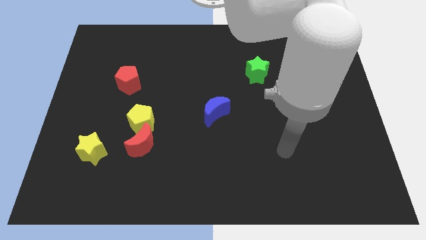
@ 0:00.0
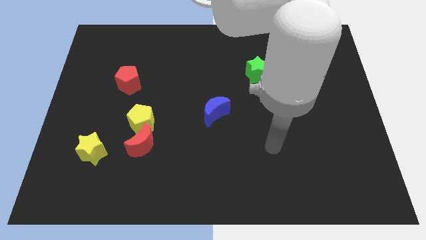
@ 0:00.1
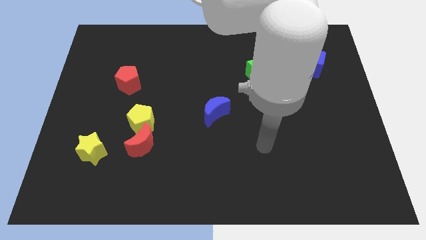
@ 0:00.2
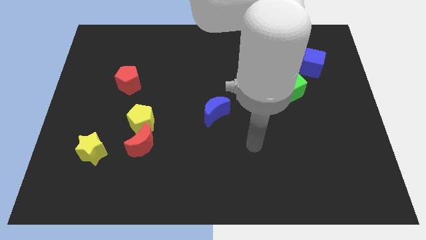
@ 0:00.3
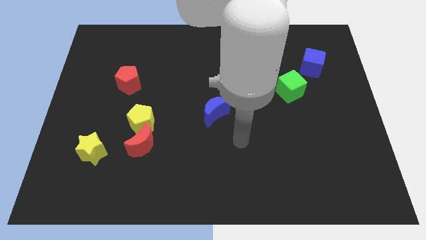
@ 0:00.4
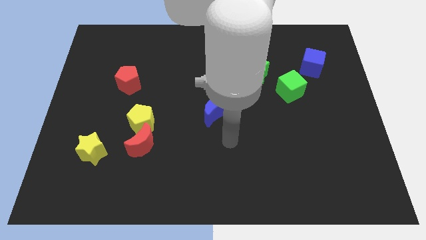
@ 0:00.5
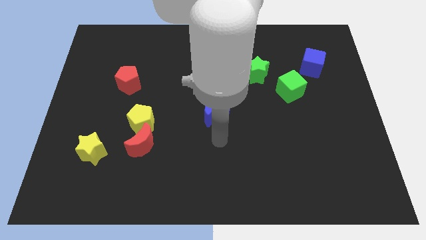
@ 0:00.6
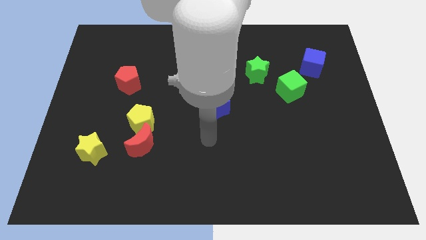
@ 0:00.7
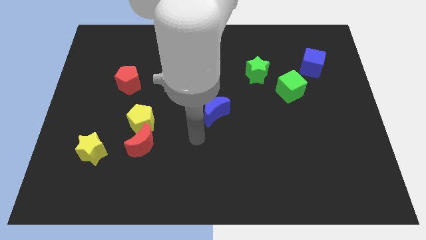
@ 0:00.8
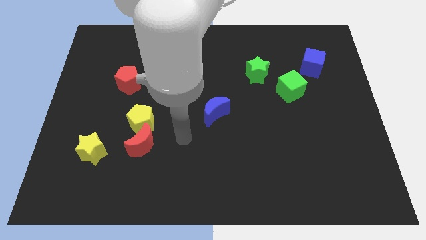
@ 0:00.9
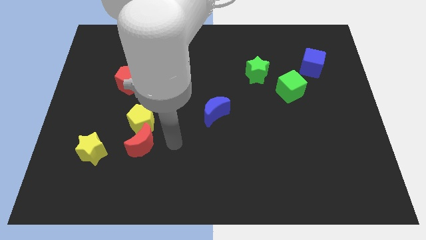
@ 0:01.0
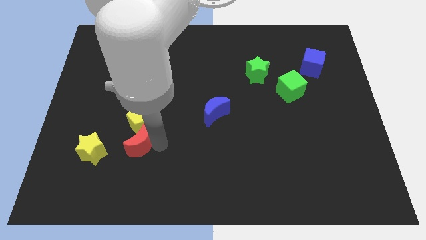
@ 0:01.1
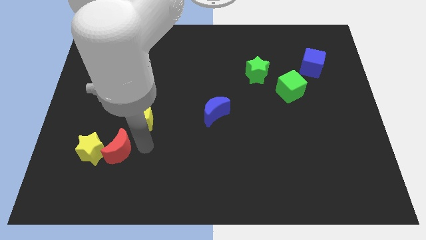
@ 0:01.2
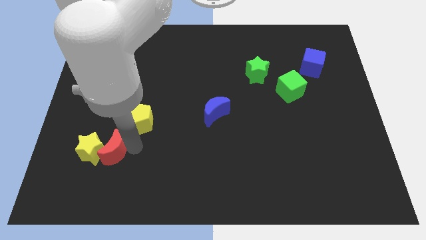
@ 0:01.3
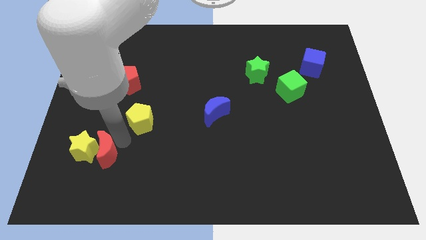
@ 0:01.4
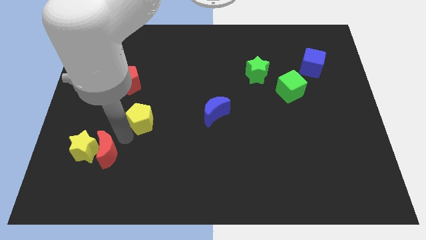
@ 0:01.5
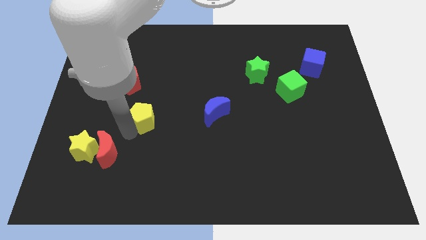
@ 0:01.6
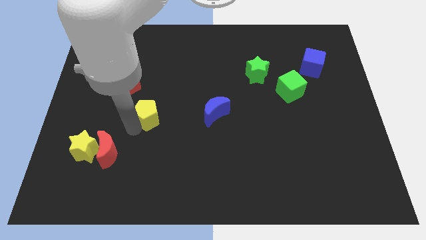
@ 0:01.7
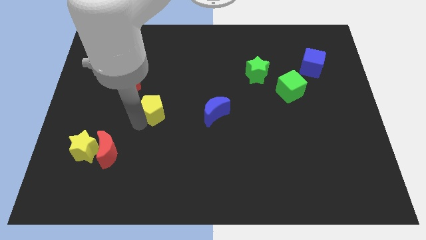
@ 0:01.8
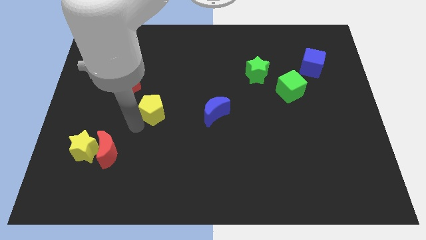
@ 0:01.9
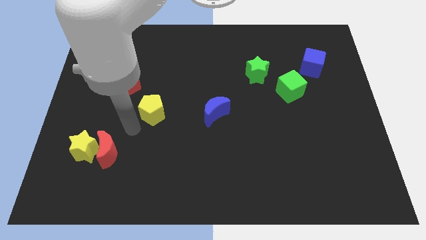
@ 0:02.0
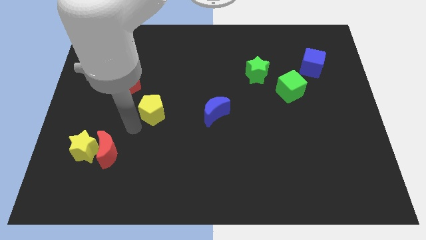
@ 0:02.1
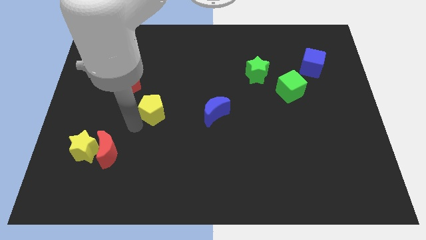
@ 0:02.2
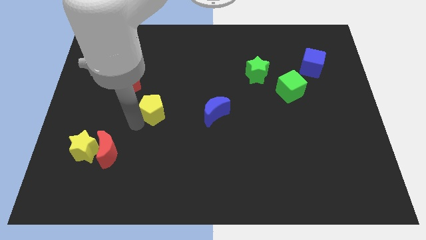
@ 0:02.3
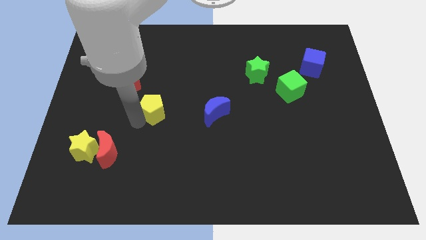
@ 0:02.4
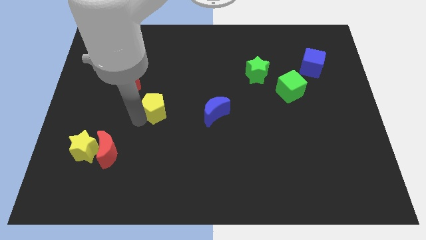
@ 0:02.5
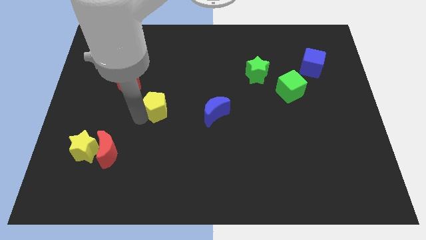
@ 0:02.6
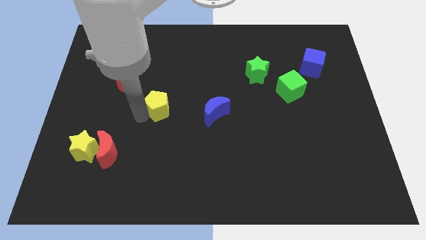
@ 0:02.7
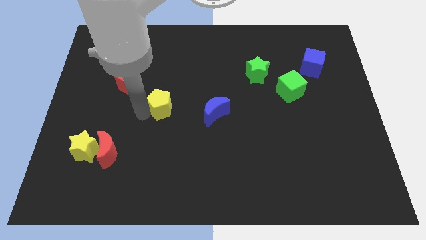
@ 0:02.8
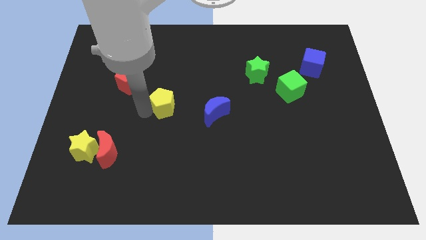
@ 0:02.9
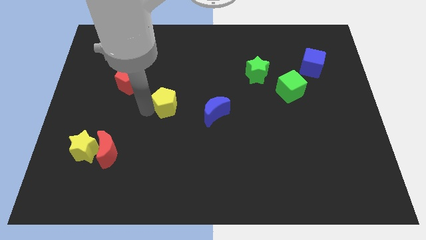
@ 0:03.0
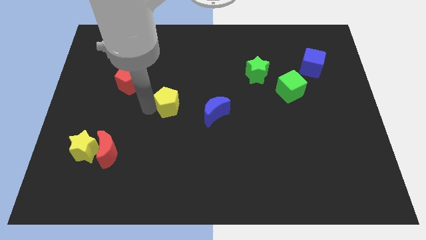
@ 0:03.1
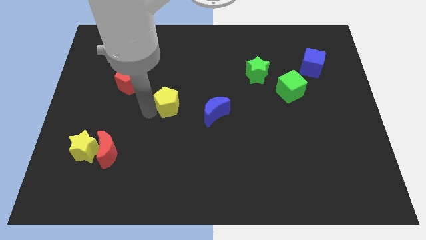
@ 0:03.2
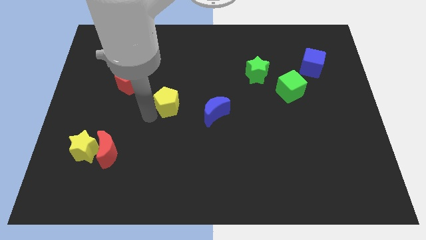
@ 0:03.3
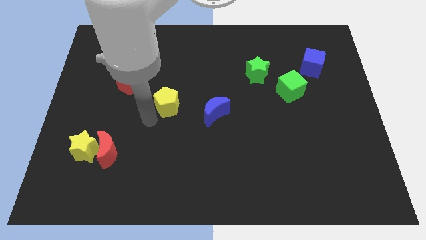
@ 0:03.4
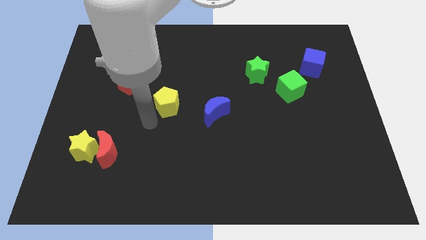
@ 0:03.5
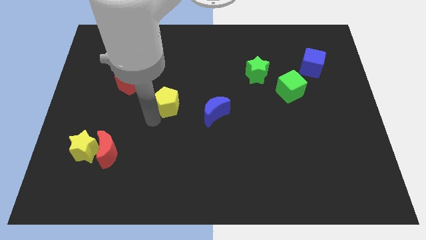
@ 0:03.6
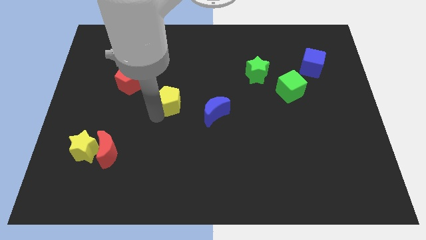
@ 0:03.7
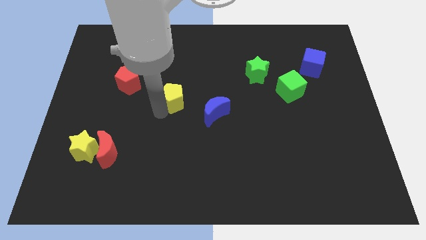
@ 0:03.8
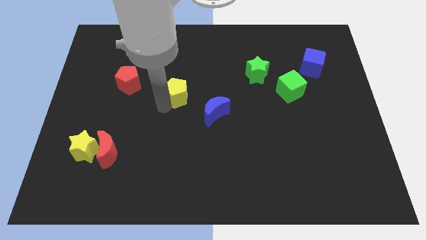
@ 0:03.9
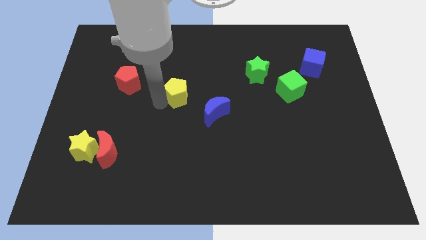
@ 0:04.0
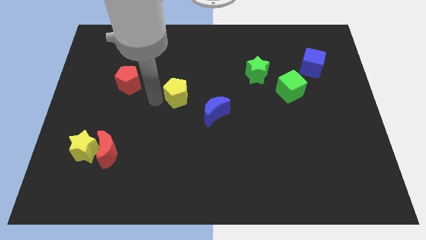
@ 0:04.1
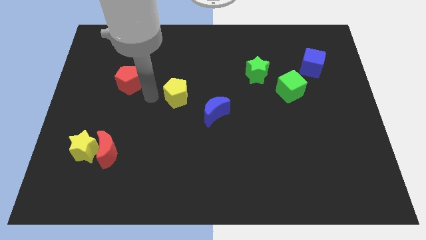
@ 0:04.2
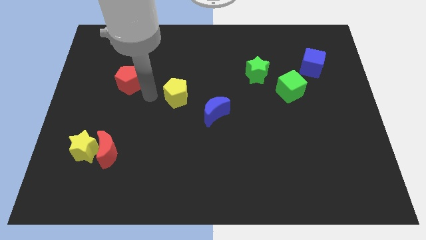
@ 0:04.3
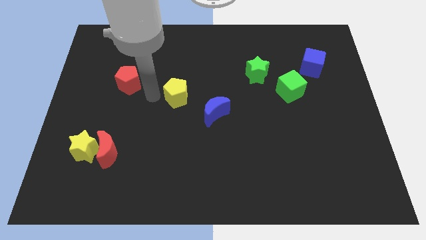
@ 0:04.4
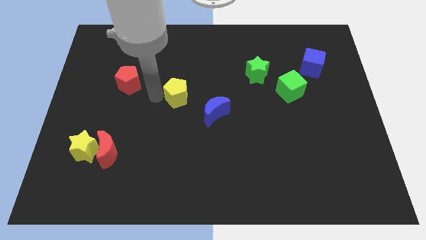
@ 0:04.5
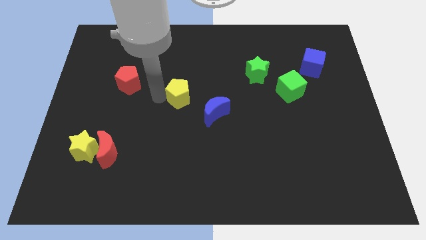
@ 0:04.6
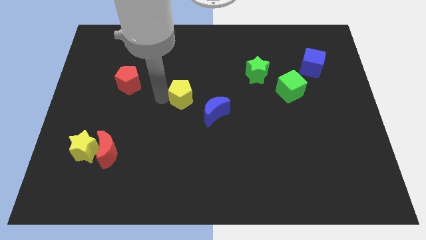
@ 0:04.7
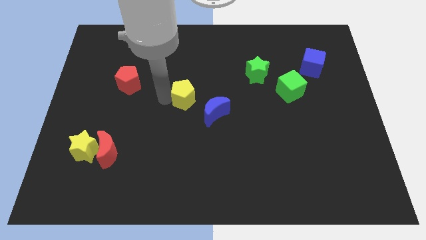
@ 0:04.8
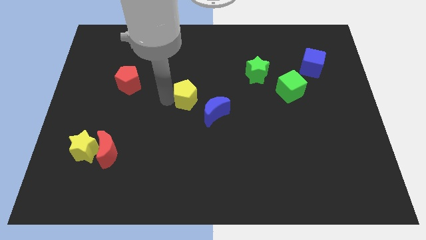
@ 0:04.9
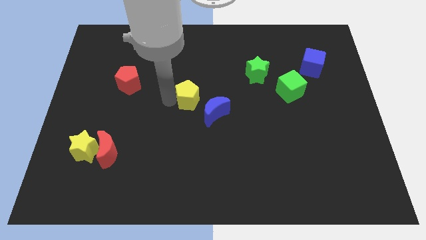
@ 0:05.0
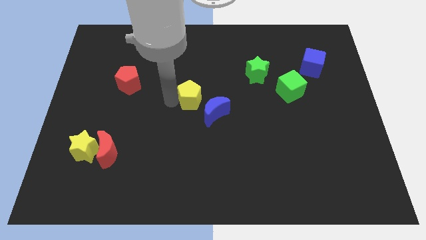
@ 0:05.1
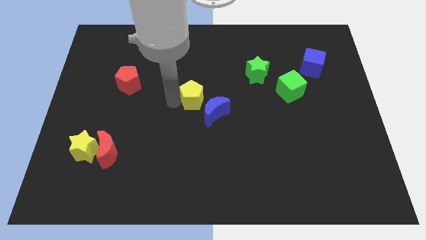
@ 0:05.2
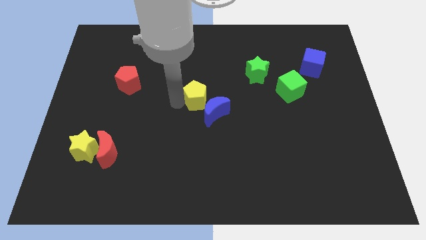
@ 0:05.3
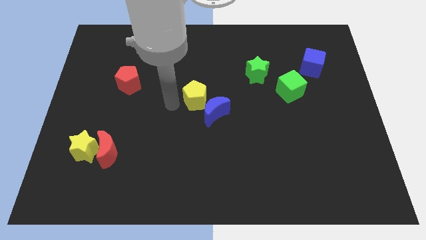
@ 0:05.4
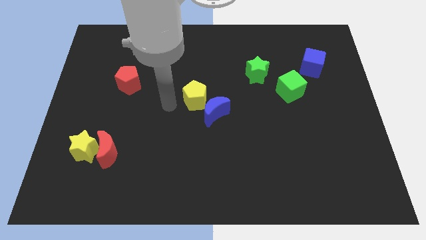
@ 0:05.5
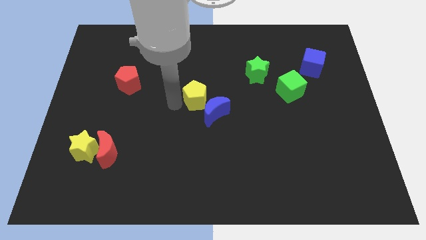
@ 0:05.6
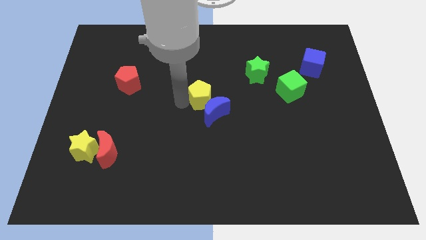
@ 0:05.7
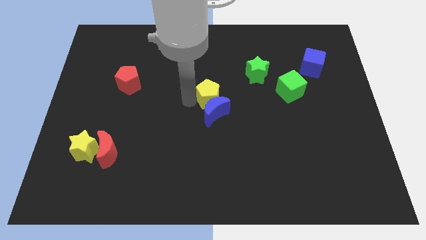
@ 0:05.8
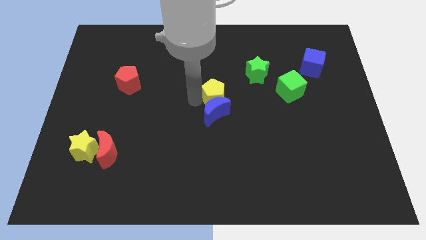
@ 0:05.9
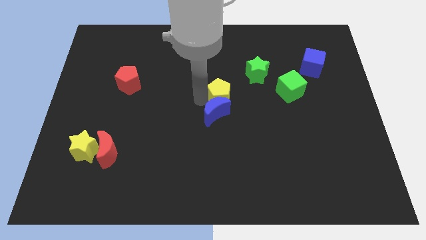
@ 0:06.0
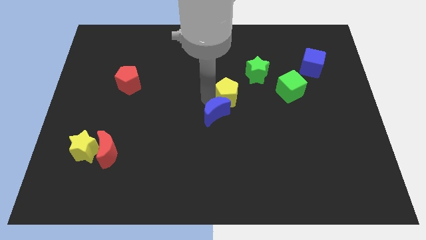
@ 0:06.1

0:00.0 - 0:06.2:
slide the yellow pentagon just left of the green cube

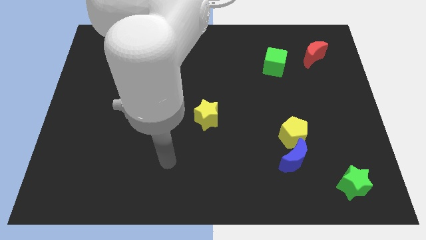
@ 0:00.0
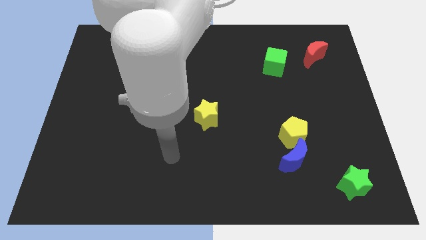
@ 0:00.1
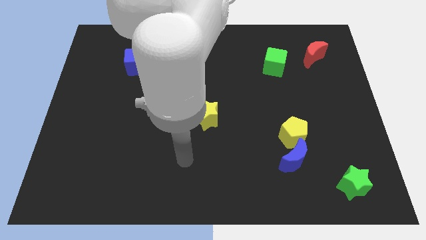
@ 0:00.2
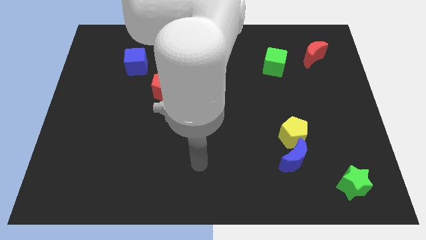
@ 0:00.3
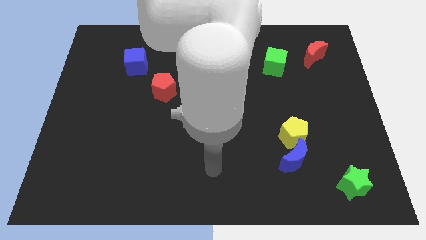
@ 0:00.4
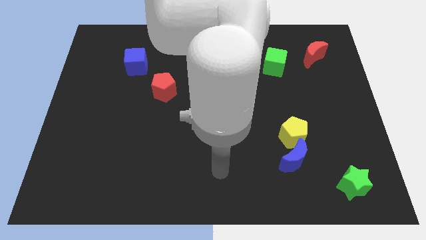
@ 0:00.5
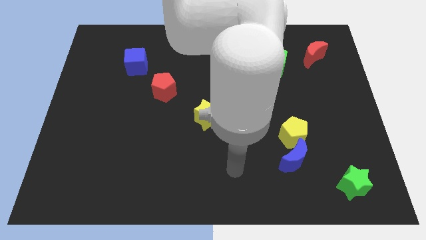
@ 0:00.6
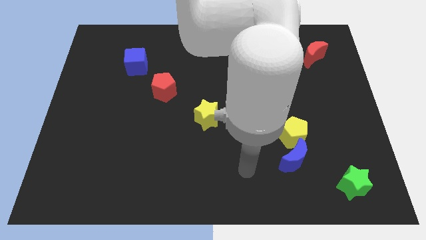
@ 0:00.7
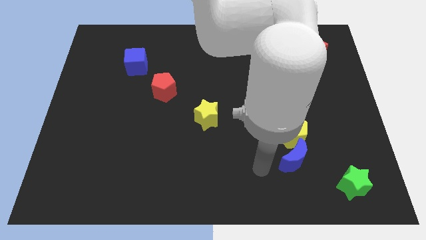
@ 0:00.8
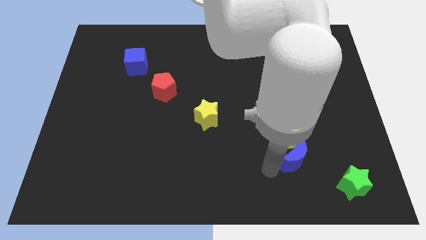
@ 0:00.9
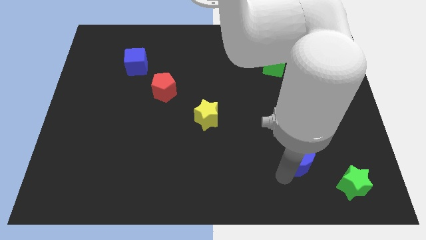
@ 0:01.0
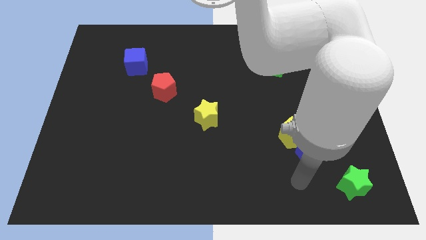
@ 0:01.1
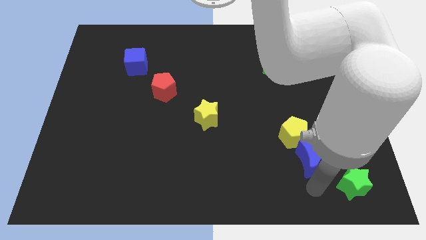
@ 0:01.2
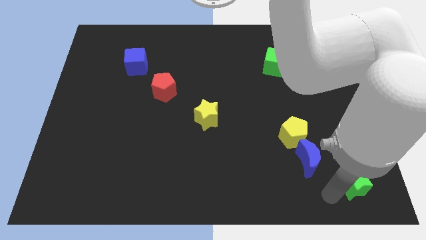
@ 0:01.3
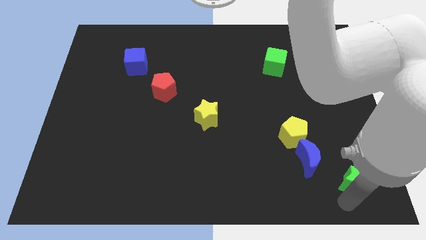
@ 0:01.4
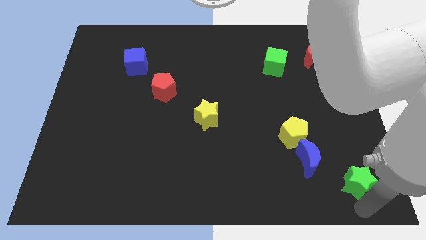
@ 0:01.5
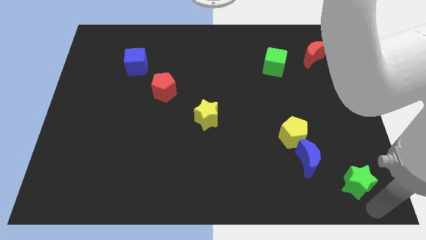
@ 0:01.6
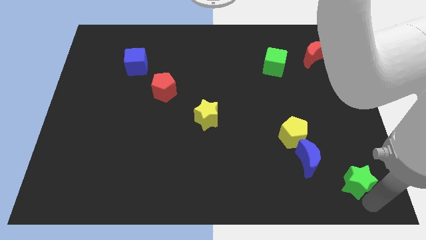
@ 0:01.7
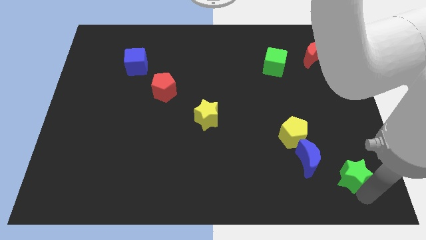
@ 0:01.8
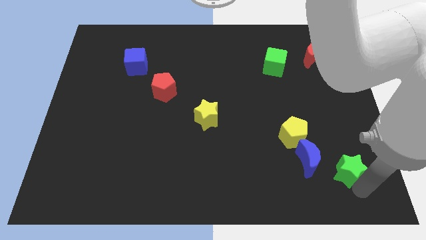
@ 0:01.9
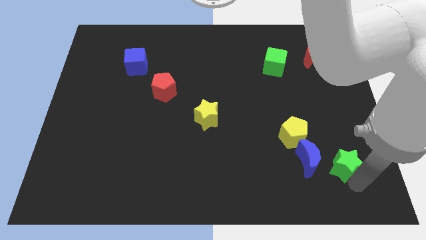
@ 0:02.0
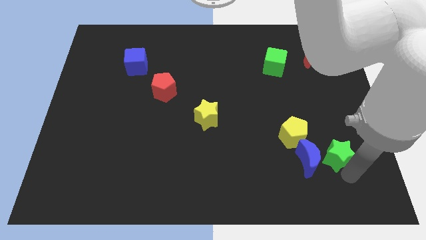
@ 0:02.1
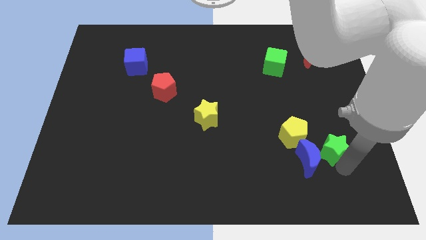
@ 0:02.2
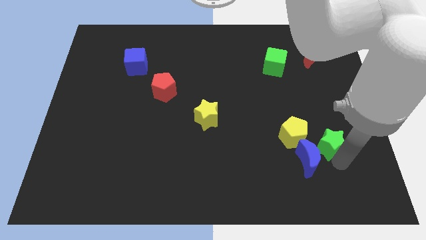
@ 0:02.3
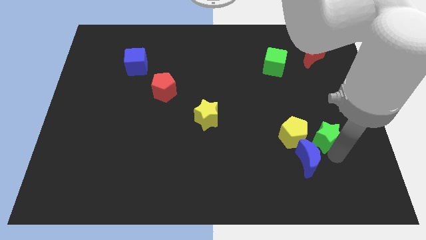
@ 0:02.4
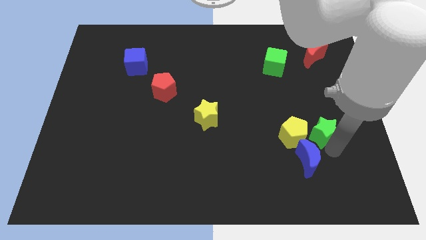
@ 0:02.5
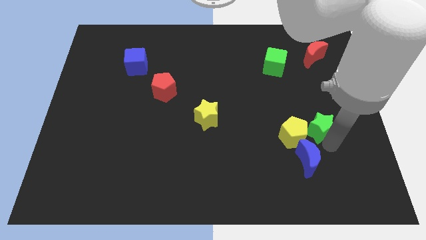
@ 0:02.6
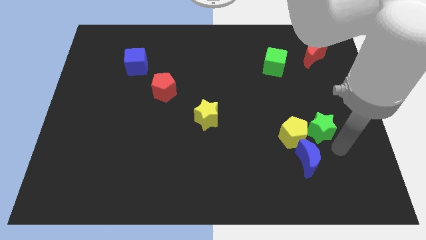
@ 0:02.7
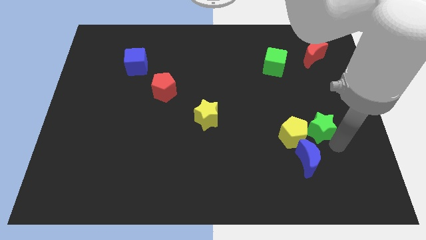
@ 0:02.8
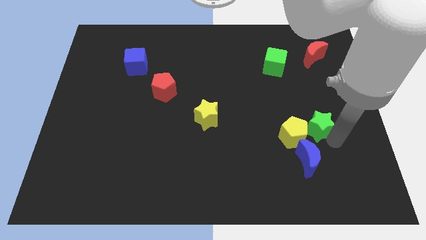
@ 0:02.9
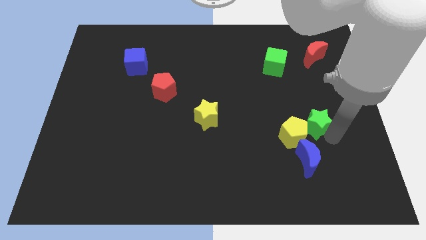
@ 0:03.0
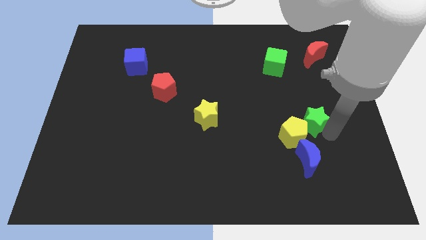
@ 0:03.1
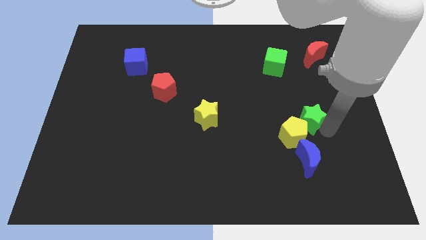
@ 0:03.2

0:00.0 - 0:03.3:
push the green star above the yellow pentagon
